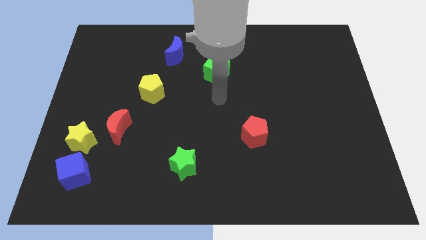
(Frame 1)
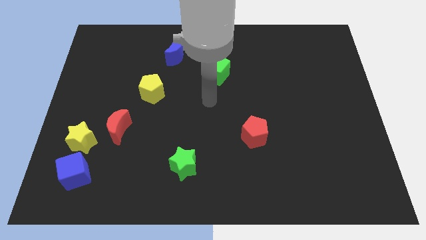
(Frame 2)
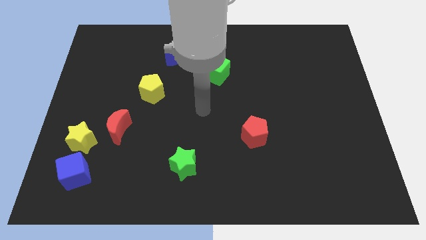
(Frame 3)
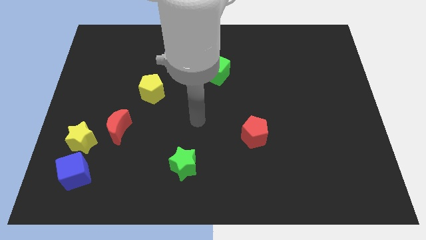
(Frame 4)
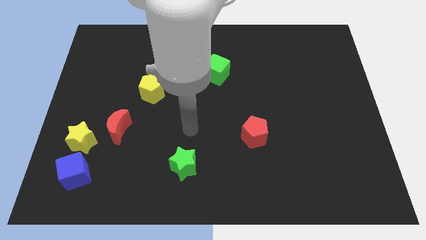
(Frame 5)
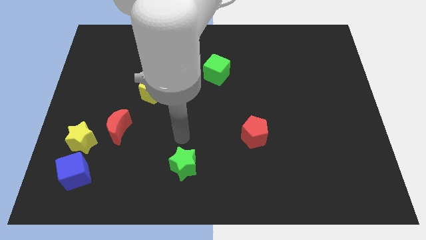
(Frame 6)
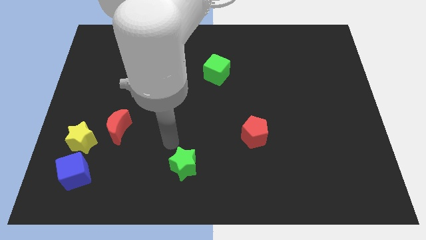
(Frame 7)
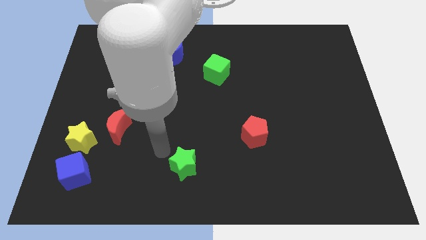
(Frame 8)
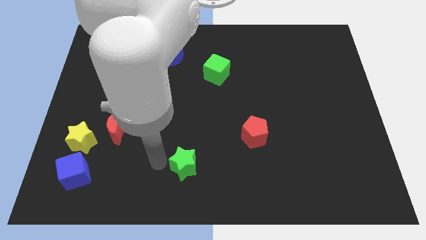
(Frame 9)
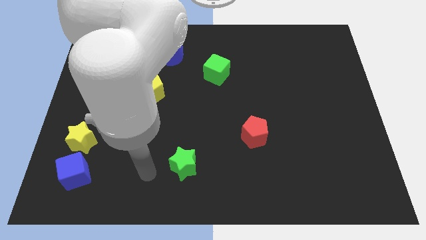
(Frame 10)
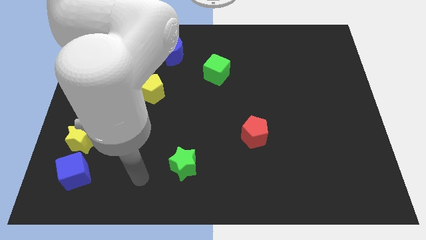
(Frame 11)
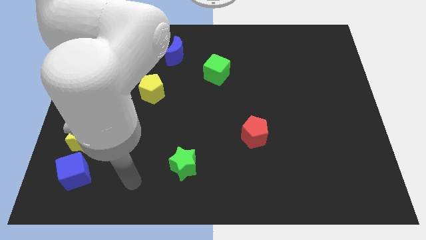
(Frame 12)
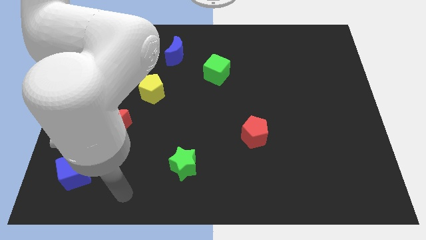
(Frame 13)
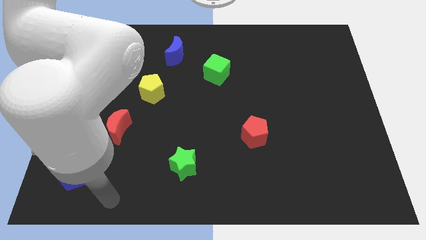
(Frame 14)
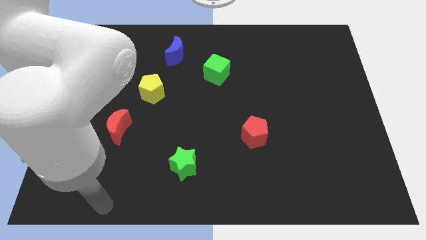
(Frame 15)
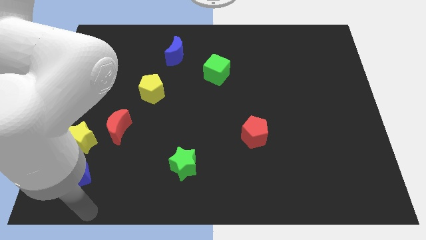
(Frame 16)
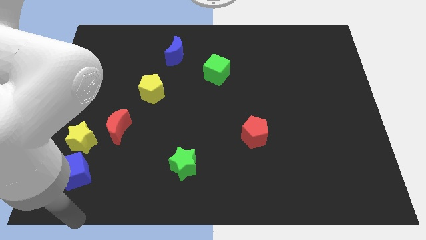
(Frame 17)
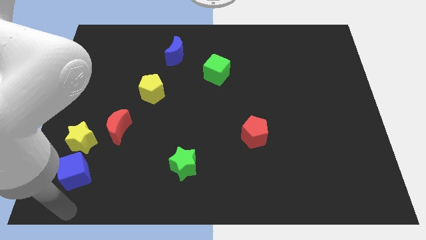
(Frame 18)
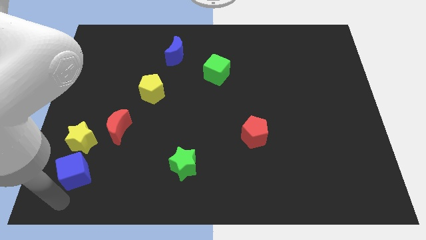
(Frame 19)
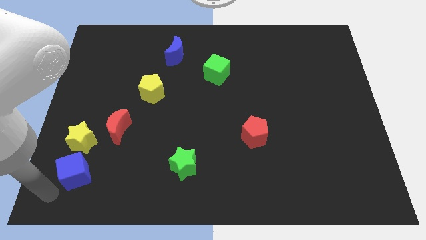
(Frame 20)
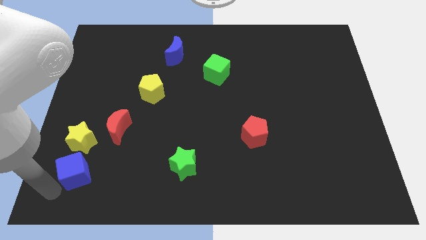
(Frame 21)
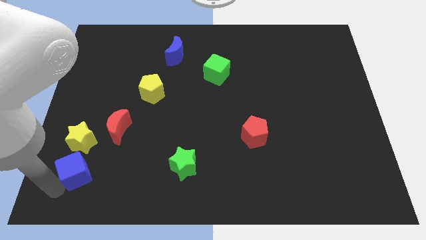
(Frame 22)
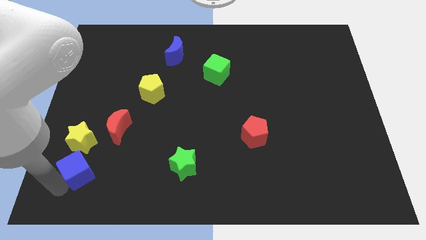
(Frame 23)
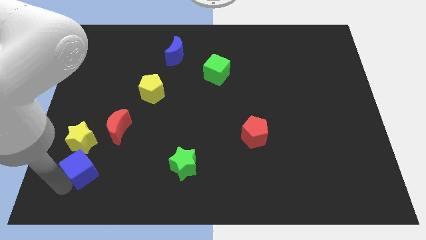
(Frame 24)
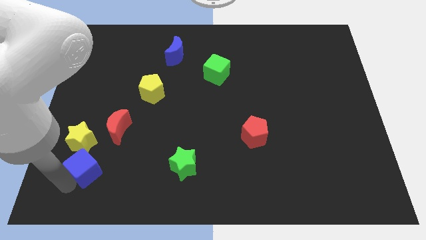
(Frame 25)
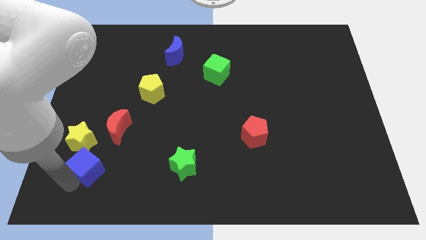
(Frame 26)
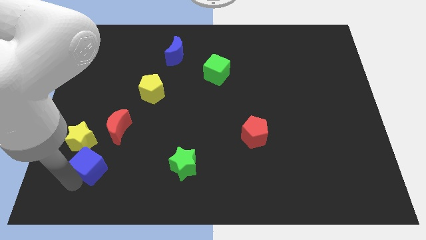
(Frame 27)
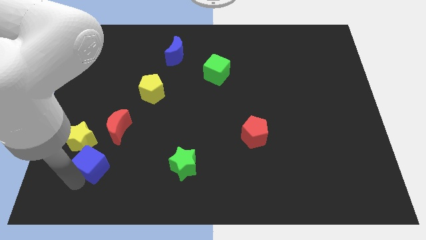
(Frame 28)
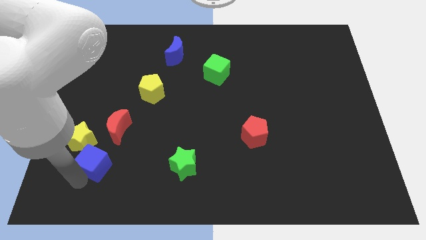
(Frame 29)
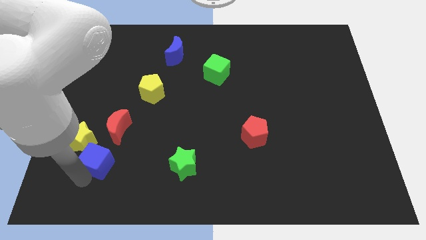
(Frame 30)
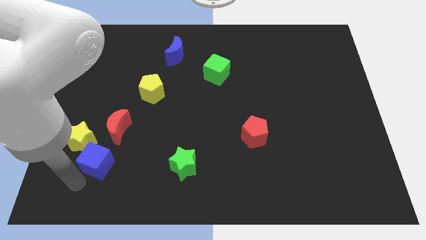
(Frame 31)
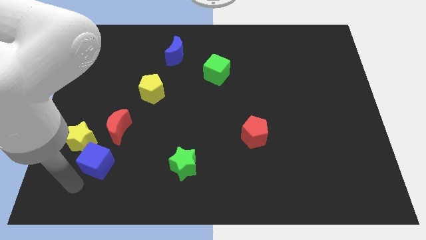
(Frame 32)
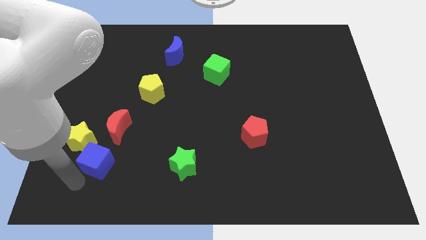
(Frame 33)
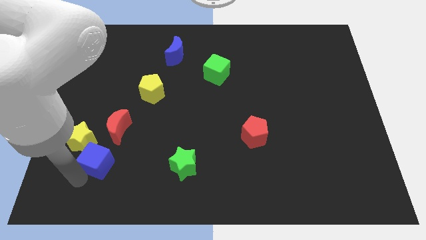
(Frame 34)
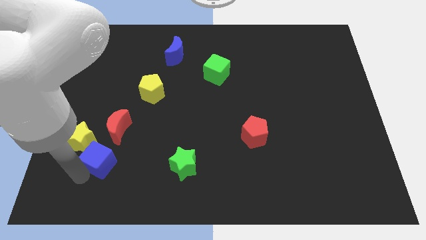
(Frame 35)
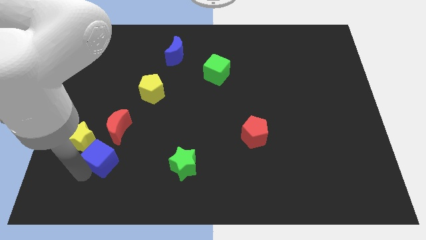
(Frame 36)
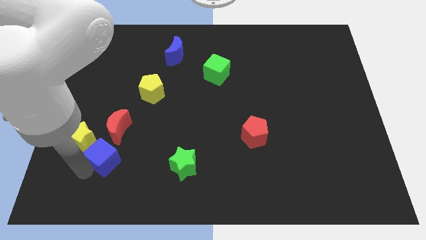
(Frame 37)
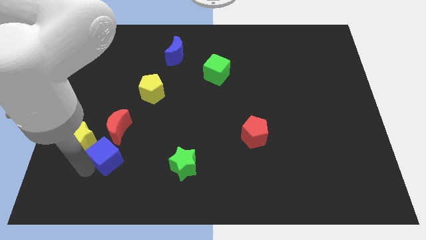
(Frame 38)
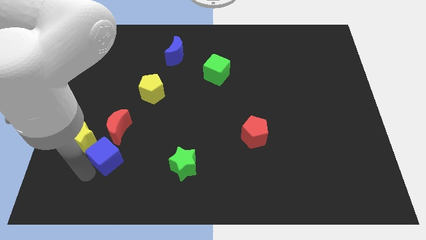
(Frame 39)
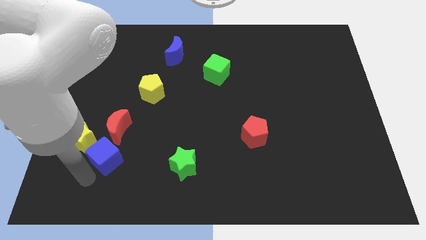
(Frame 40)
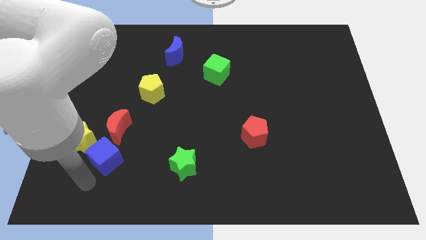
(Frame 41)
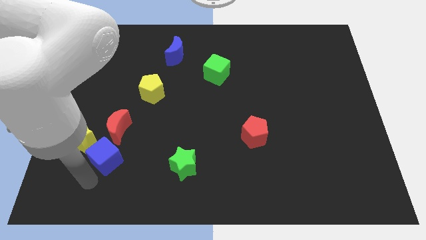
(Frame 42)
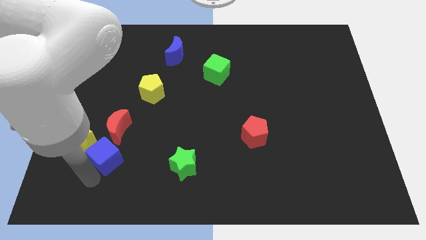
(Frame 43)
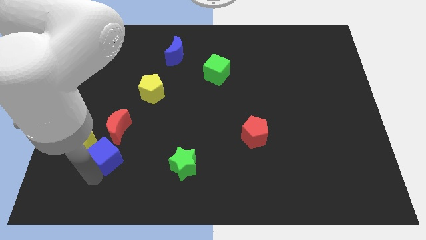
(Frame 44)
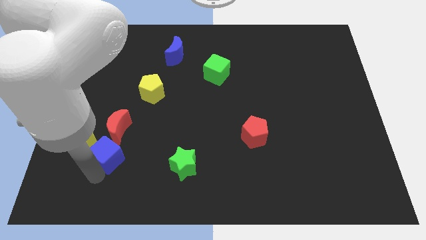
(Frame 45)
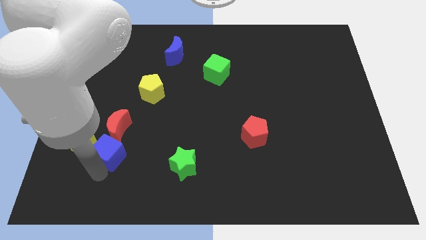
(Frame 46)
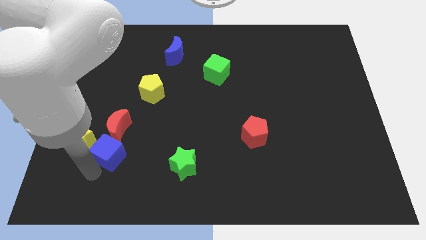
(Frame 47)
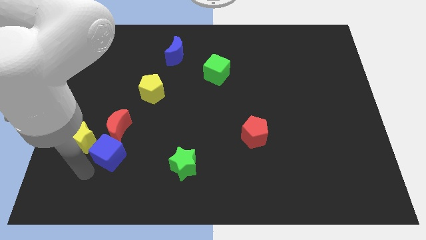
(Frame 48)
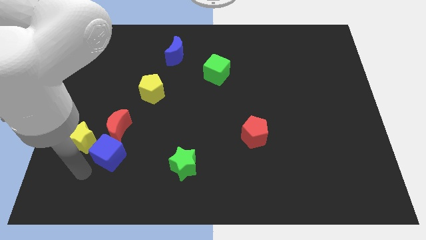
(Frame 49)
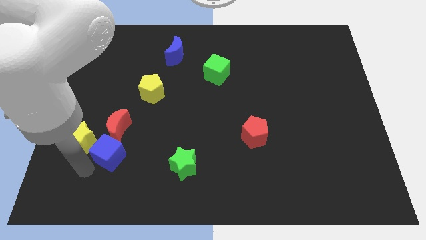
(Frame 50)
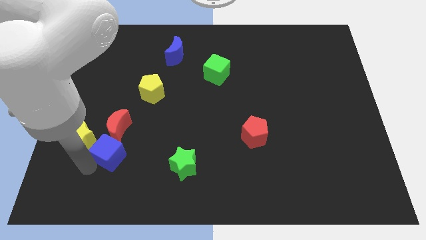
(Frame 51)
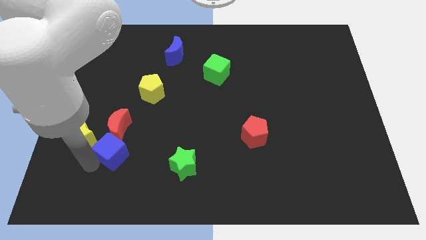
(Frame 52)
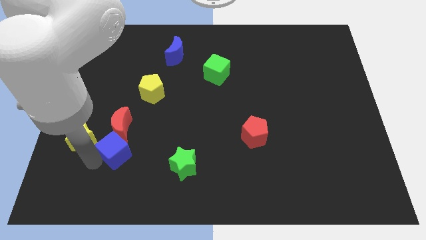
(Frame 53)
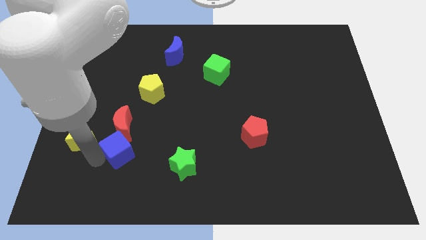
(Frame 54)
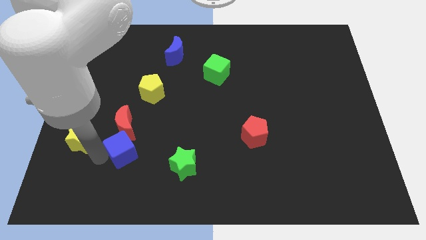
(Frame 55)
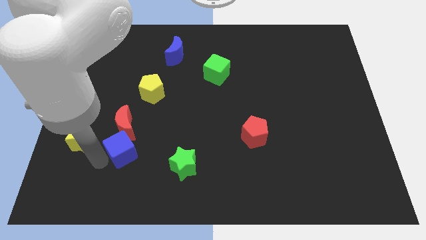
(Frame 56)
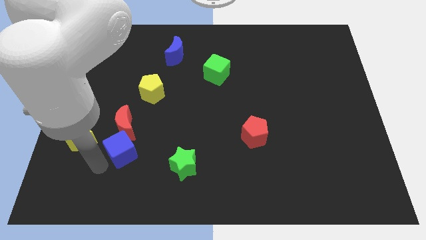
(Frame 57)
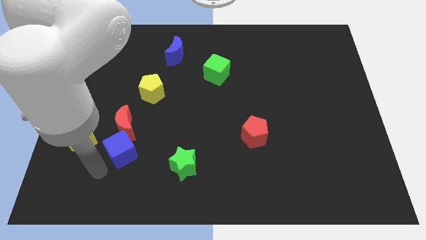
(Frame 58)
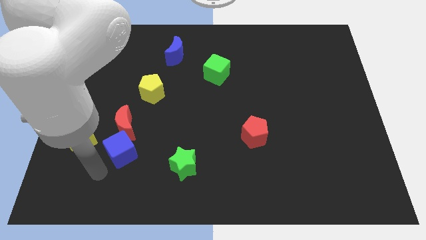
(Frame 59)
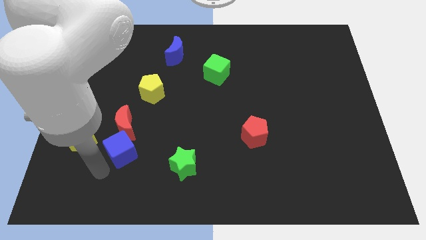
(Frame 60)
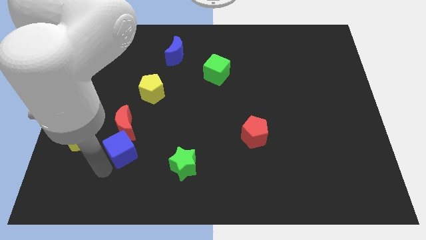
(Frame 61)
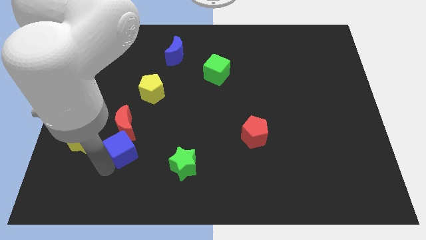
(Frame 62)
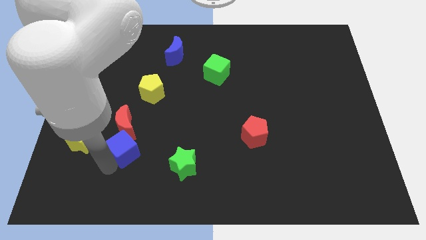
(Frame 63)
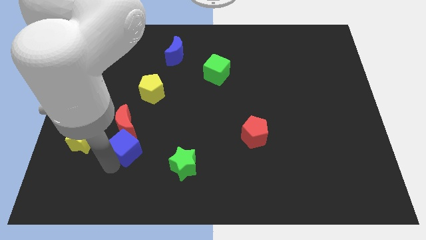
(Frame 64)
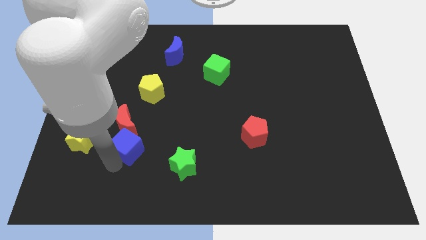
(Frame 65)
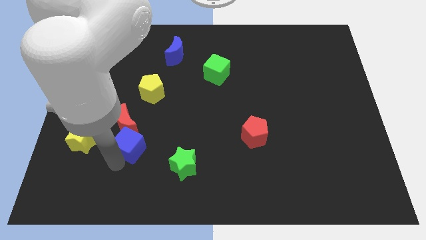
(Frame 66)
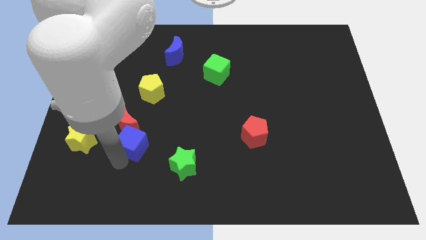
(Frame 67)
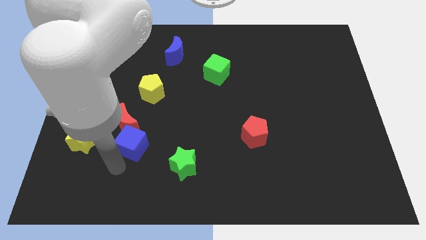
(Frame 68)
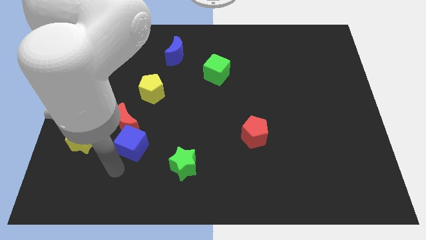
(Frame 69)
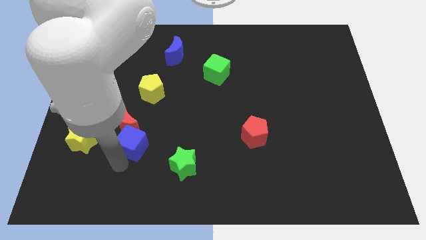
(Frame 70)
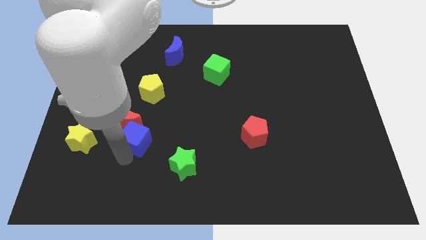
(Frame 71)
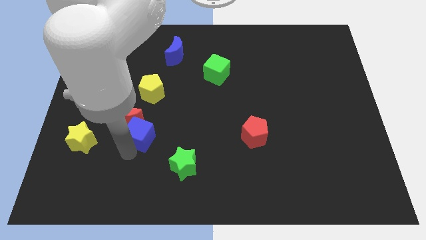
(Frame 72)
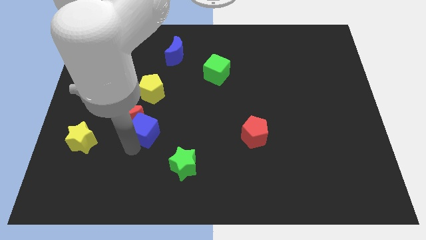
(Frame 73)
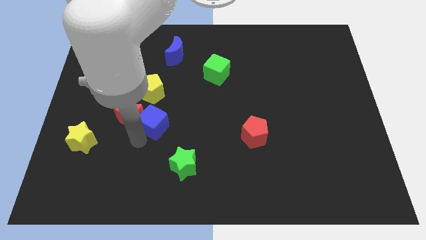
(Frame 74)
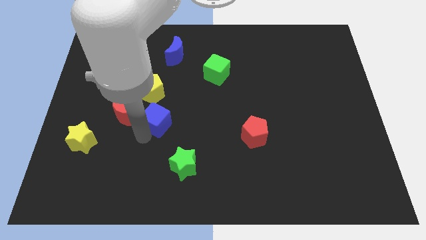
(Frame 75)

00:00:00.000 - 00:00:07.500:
slide the blue cube upwards and then right

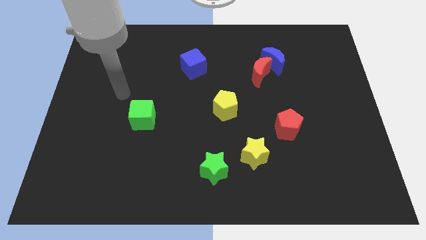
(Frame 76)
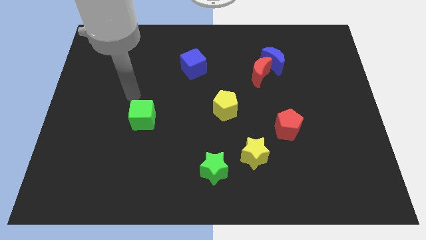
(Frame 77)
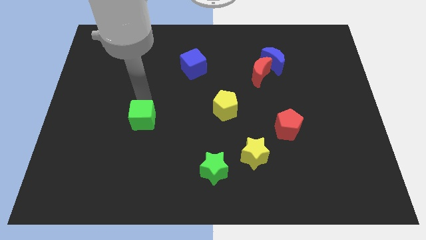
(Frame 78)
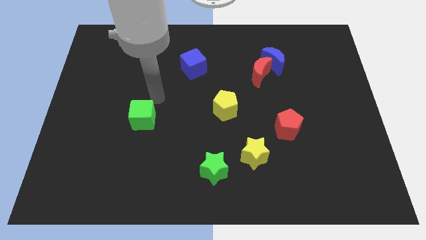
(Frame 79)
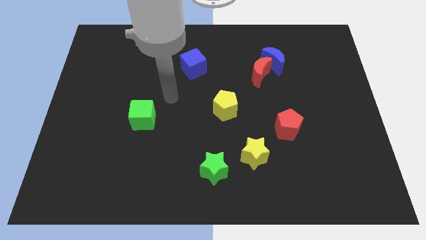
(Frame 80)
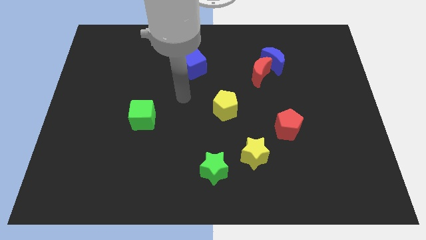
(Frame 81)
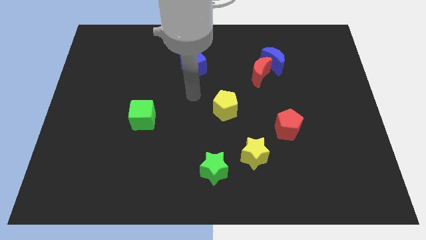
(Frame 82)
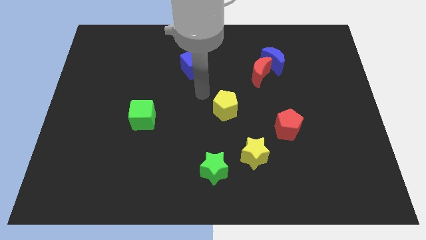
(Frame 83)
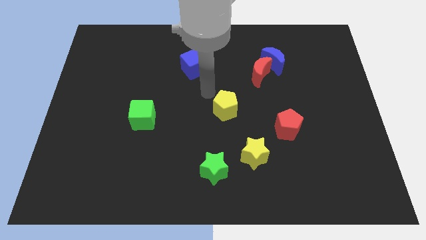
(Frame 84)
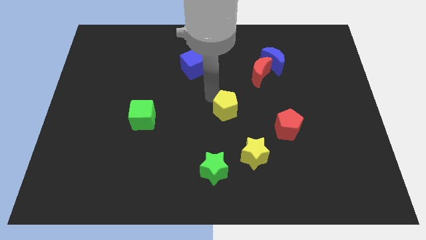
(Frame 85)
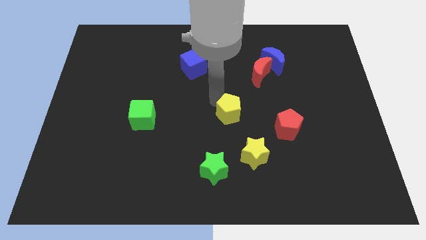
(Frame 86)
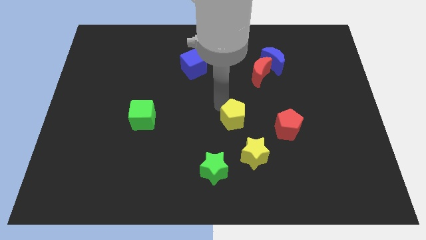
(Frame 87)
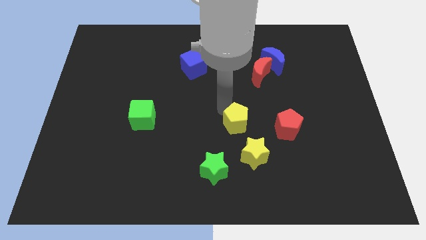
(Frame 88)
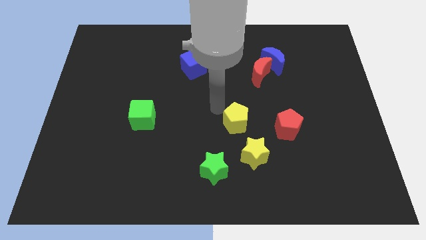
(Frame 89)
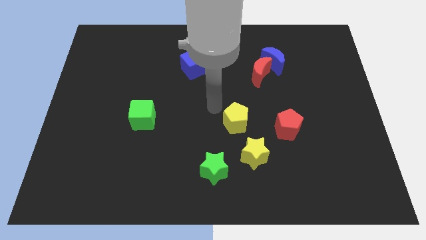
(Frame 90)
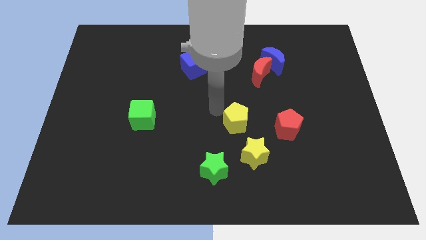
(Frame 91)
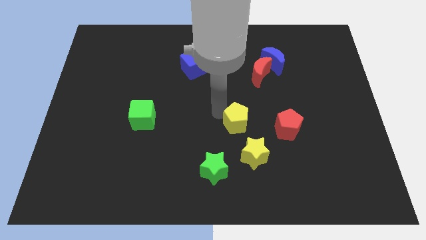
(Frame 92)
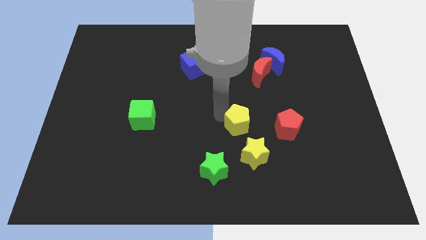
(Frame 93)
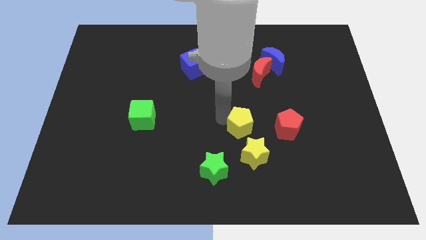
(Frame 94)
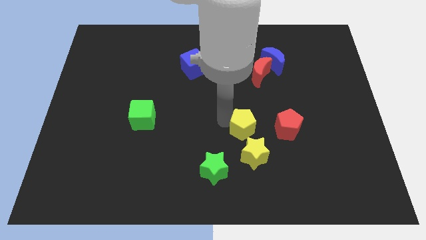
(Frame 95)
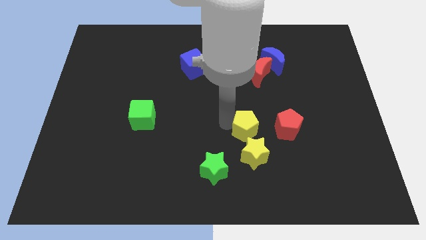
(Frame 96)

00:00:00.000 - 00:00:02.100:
slide the yellow pentagon a little downwards and then to the right
